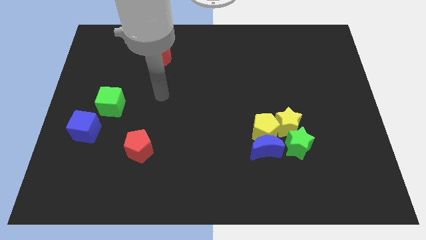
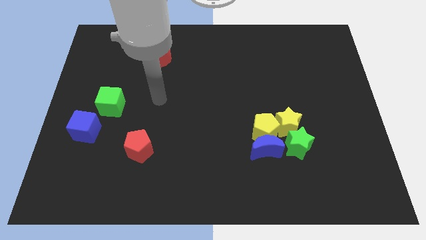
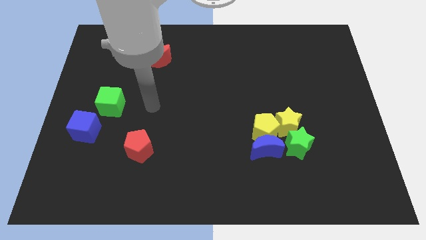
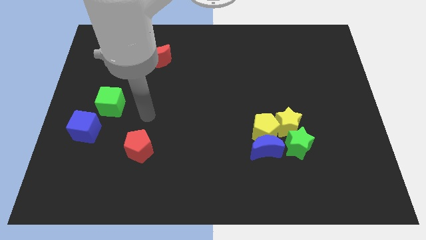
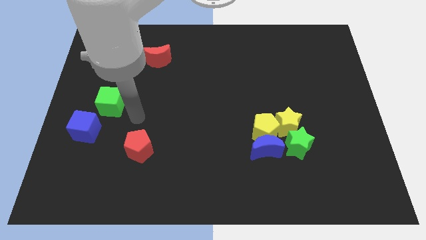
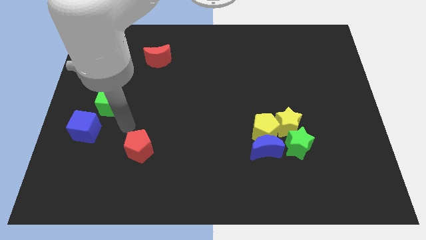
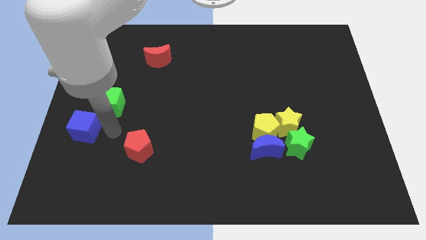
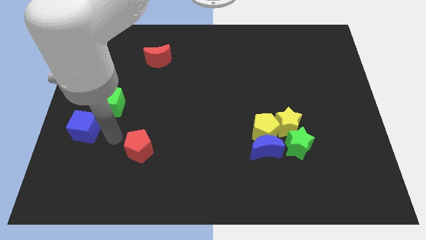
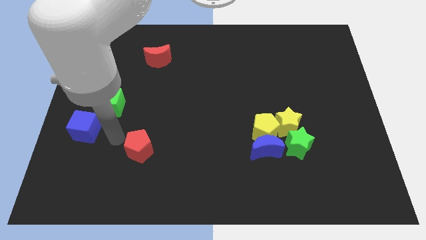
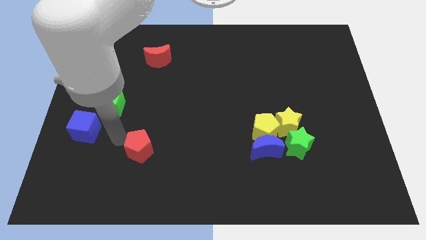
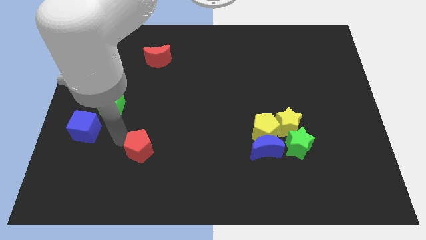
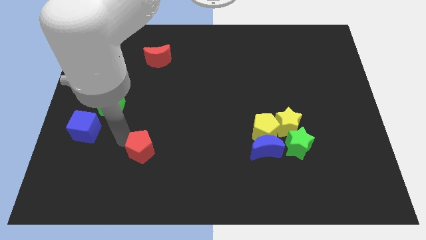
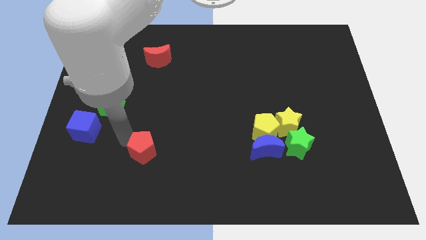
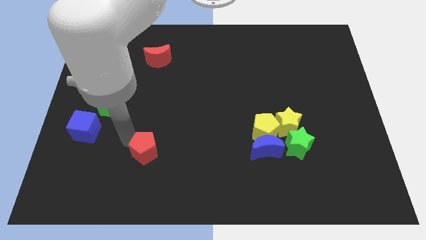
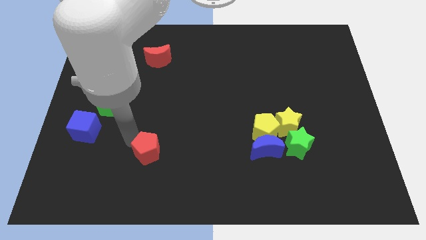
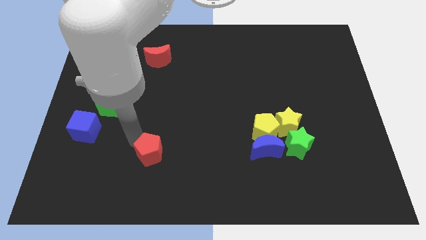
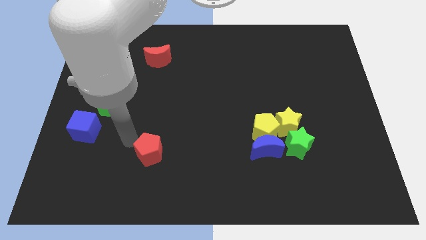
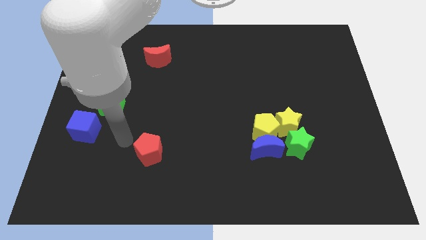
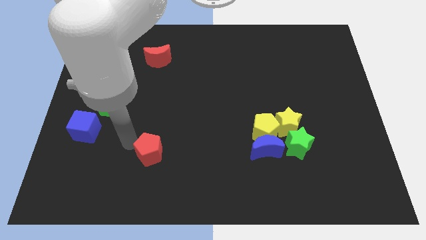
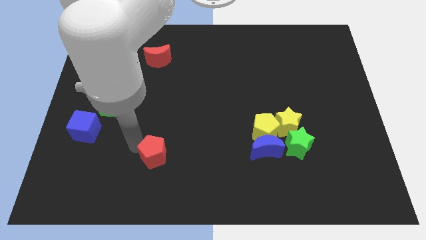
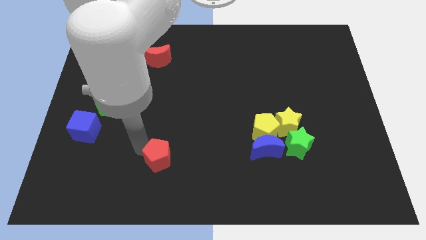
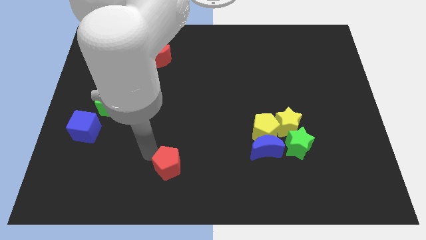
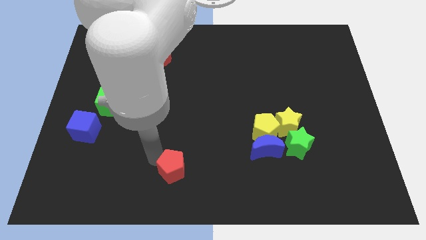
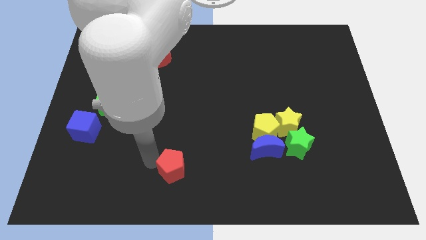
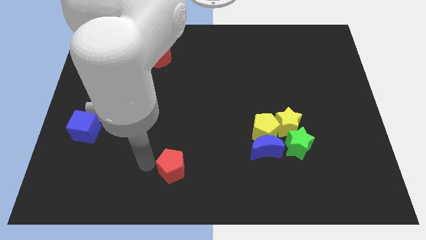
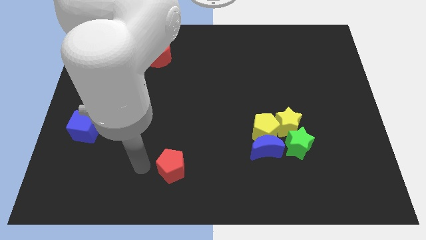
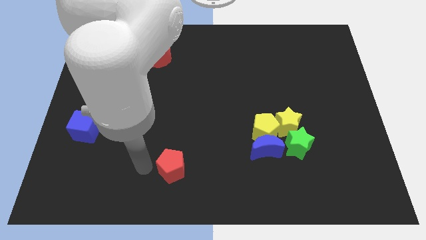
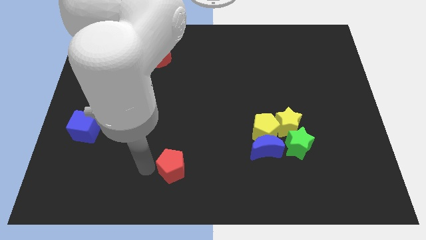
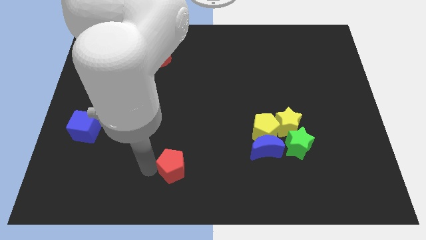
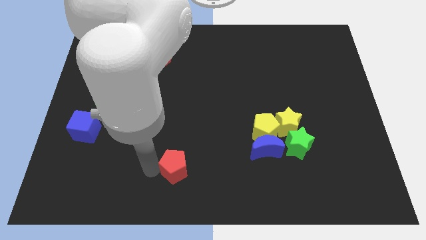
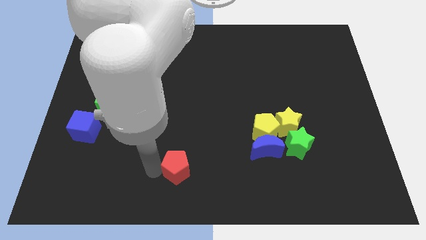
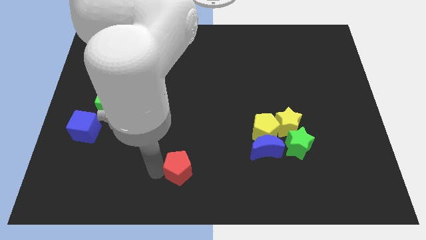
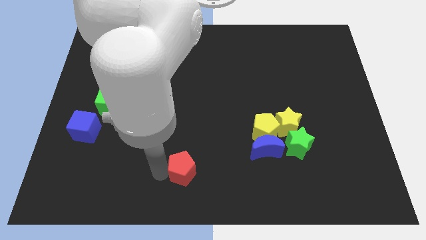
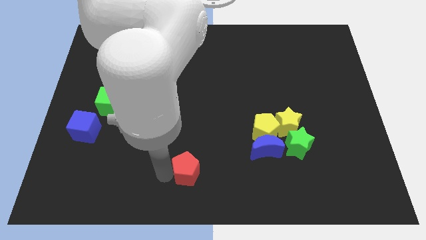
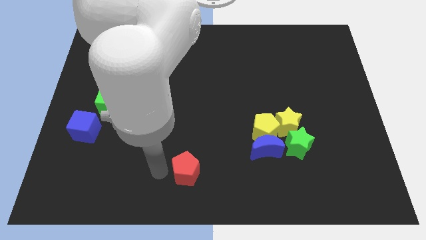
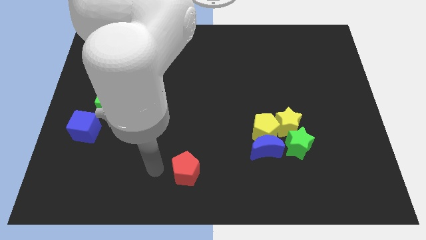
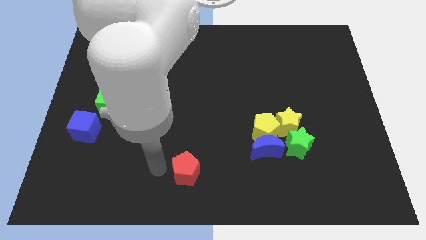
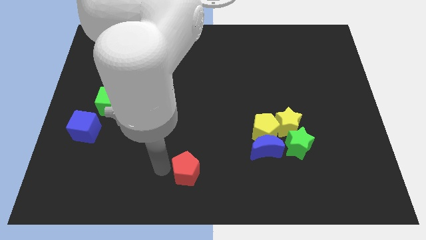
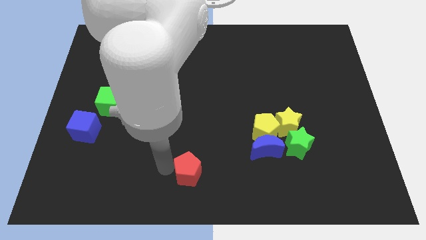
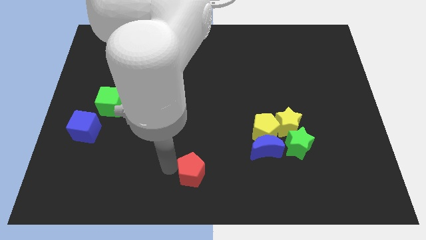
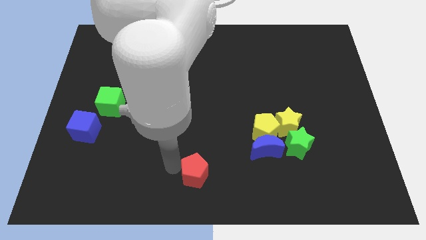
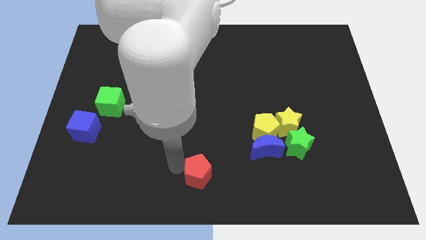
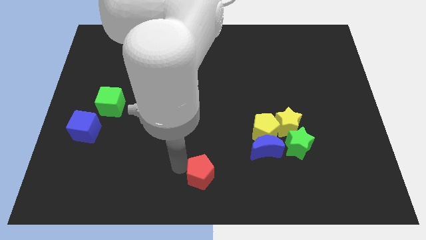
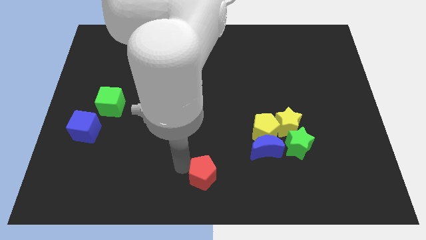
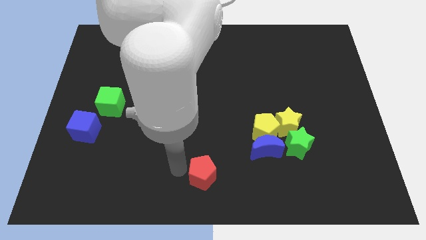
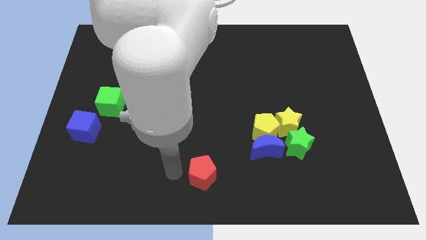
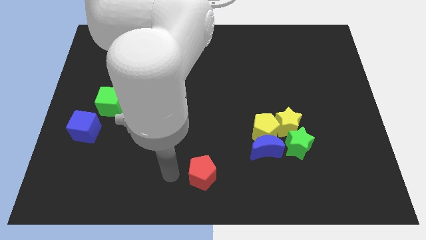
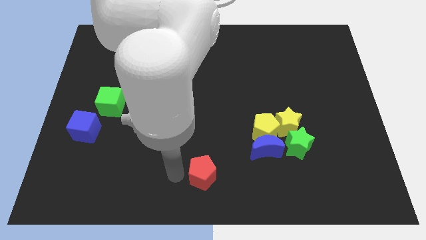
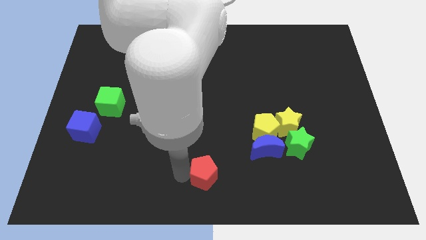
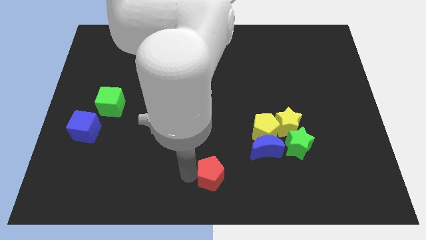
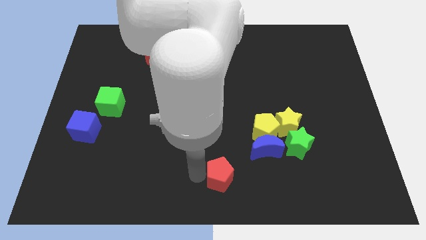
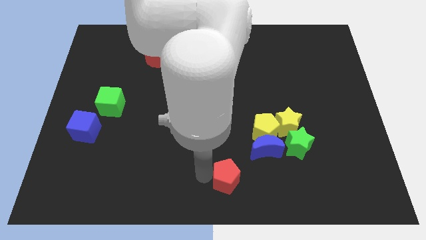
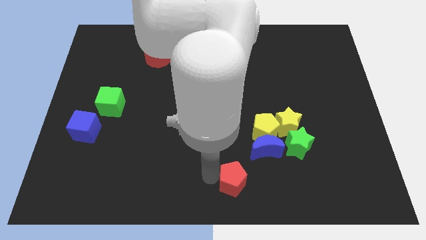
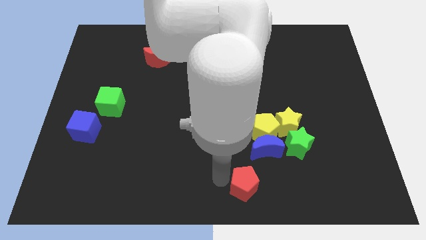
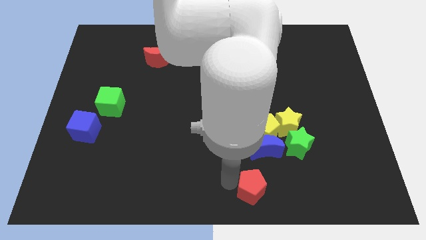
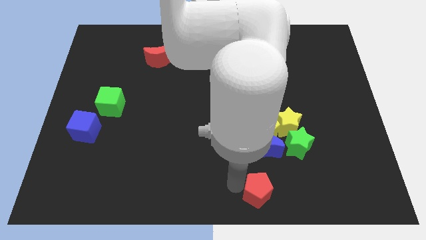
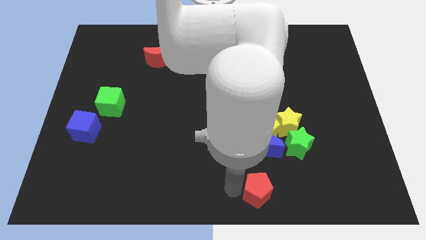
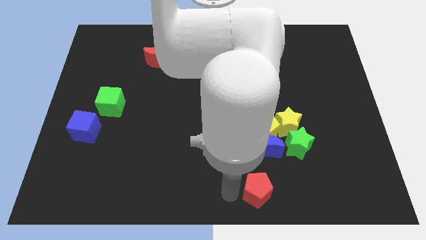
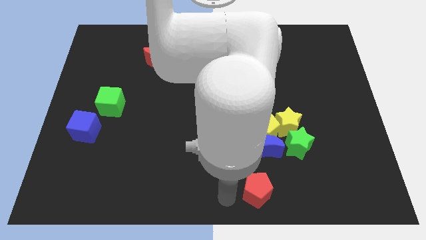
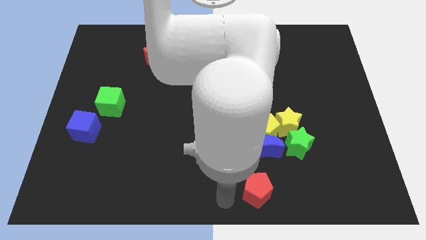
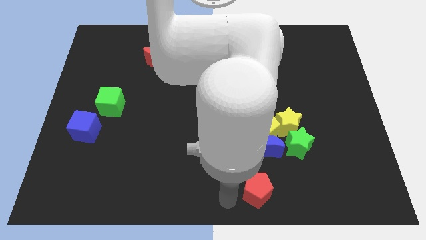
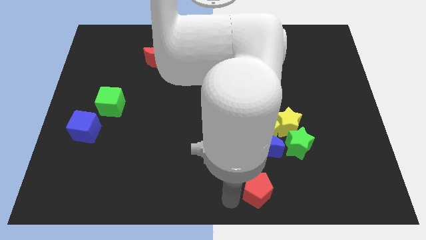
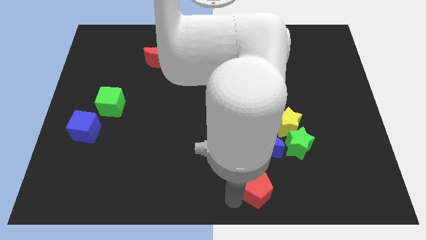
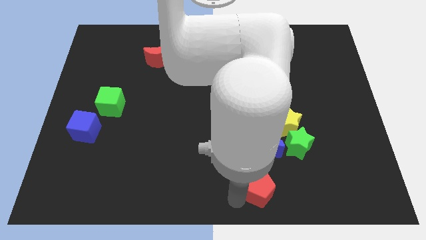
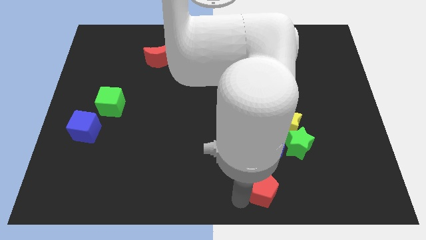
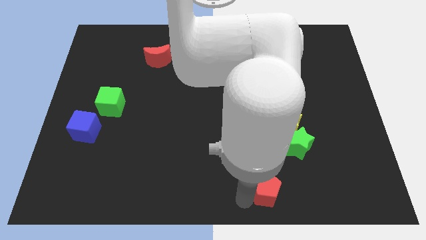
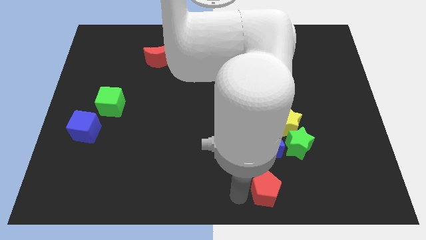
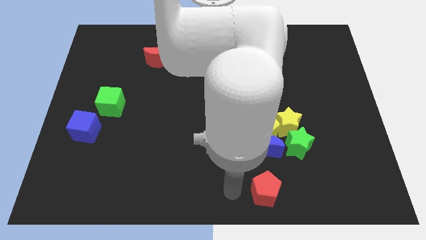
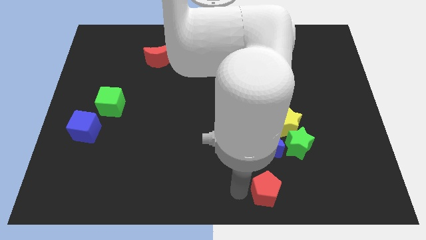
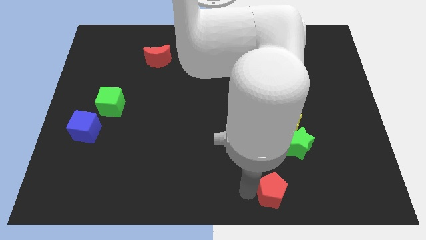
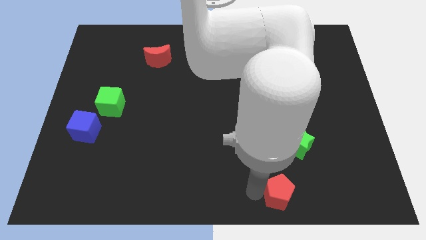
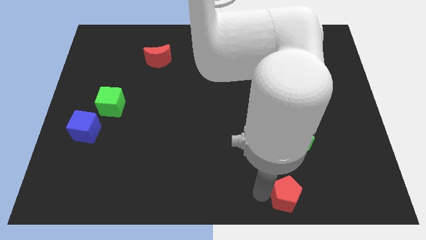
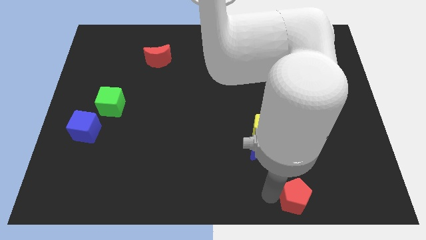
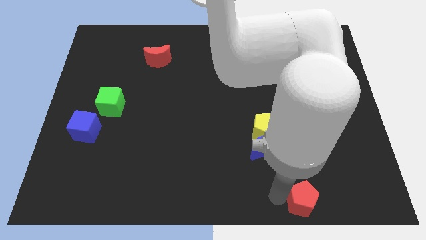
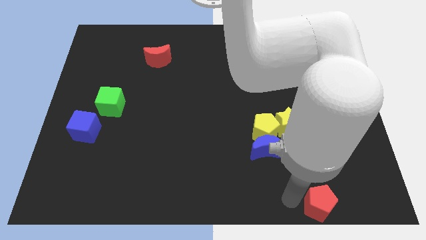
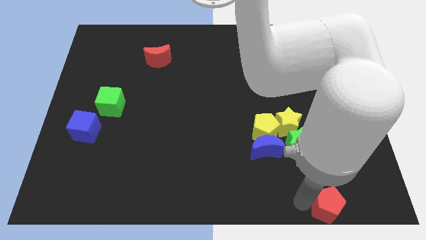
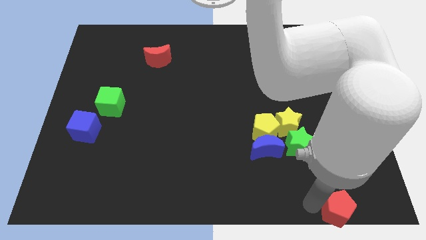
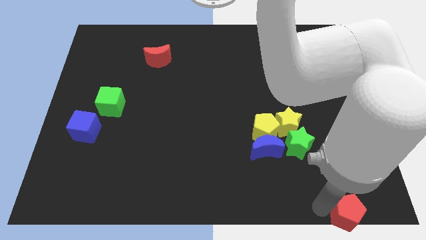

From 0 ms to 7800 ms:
push the red pentagon to the bottom right corner
